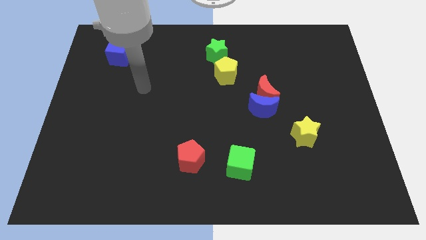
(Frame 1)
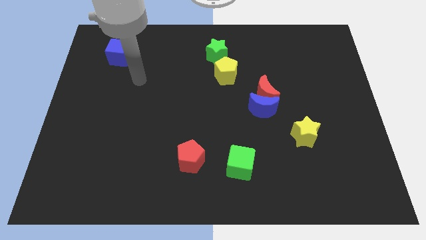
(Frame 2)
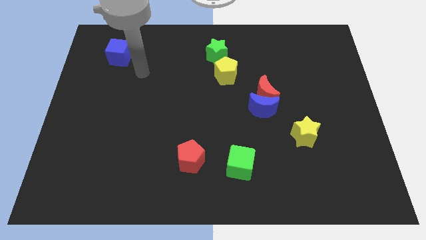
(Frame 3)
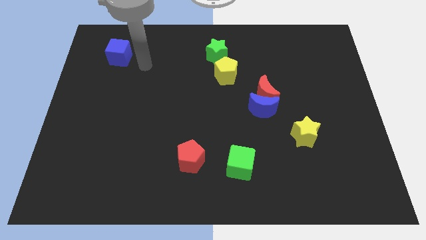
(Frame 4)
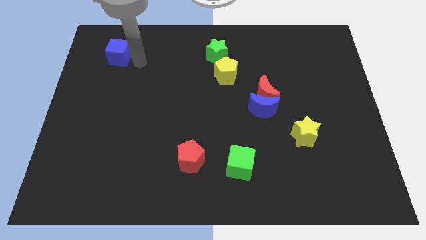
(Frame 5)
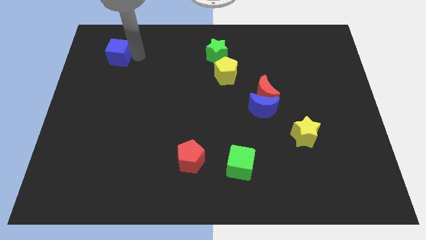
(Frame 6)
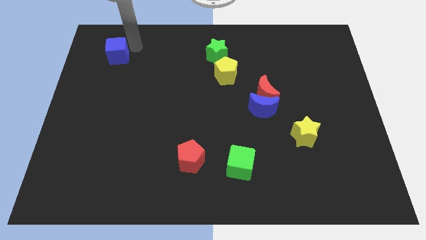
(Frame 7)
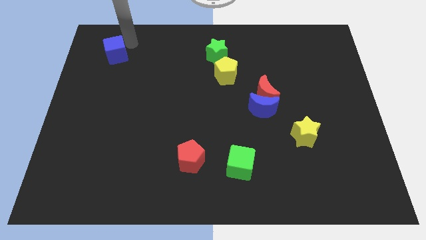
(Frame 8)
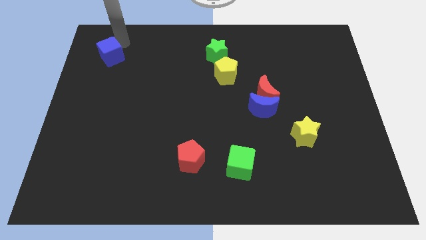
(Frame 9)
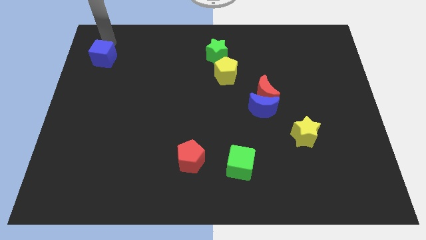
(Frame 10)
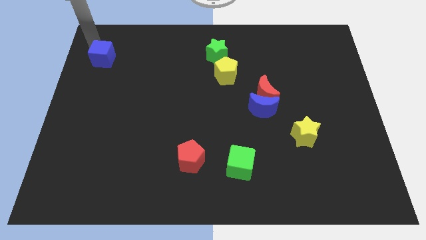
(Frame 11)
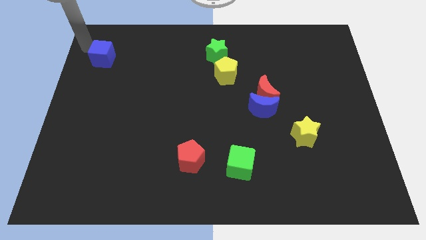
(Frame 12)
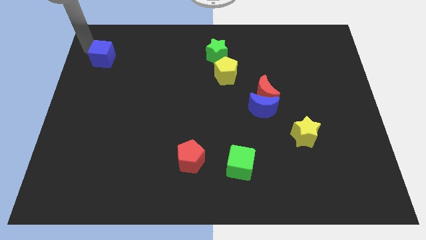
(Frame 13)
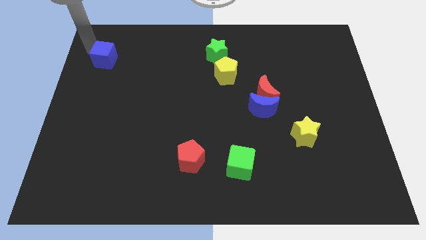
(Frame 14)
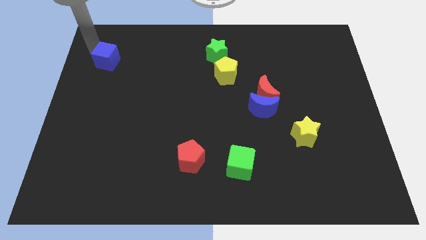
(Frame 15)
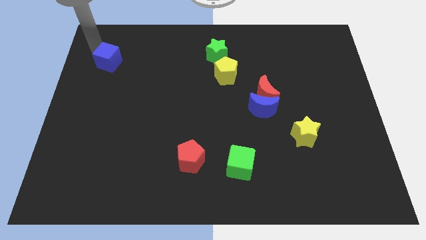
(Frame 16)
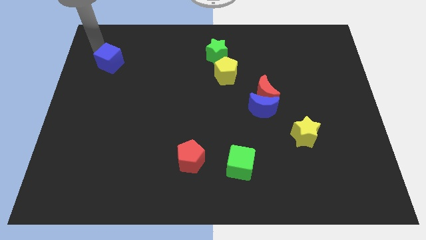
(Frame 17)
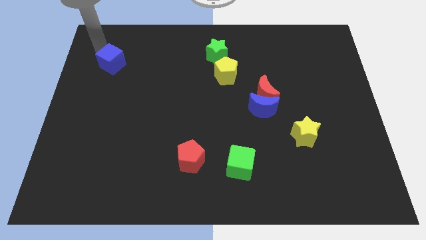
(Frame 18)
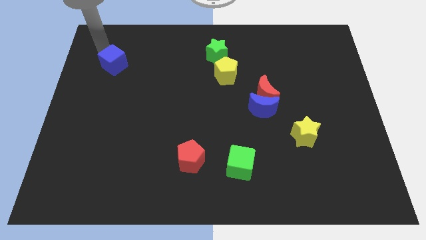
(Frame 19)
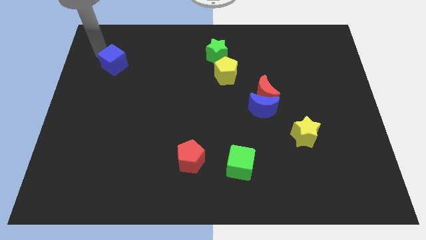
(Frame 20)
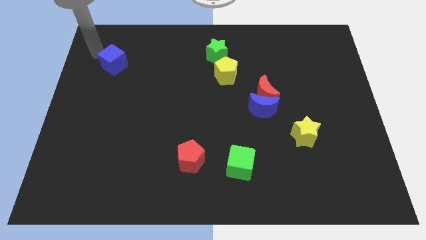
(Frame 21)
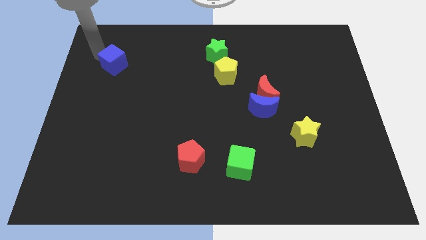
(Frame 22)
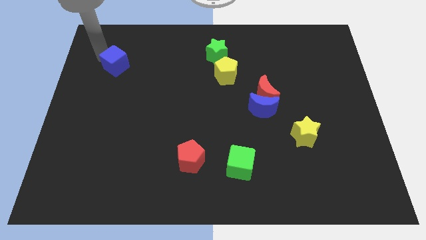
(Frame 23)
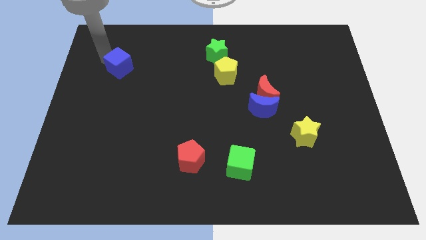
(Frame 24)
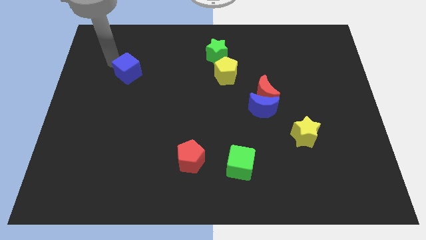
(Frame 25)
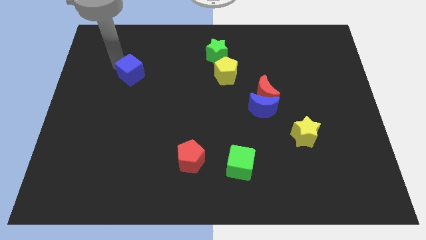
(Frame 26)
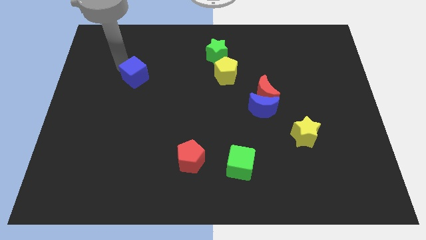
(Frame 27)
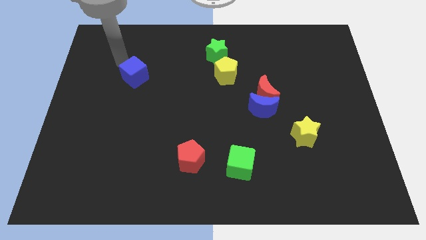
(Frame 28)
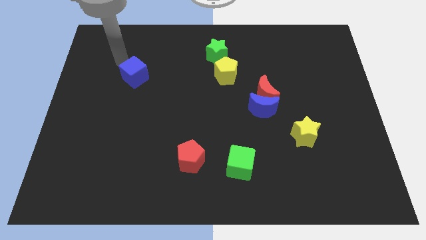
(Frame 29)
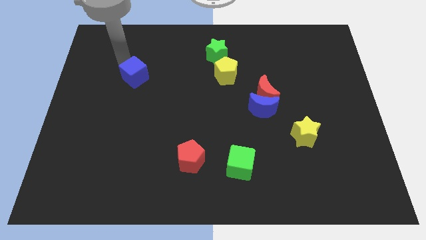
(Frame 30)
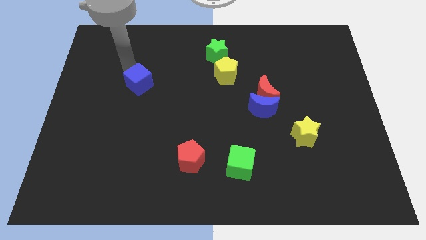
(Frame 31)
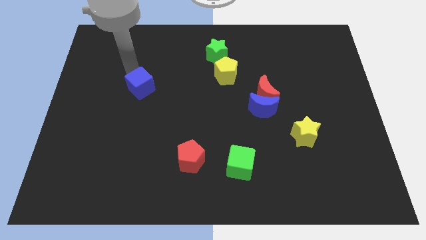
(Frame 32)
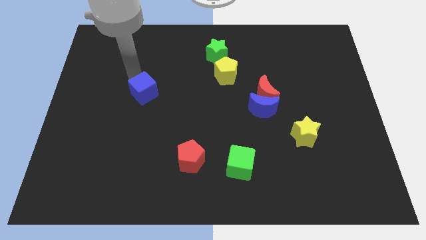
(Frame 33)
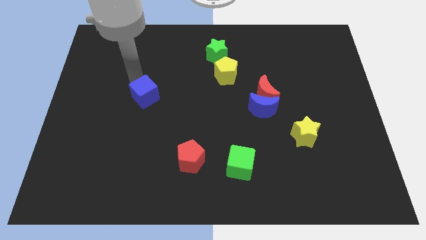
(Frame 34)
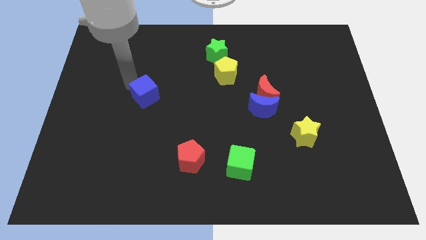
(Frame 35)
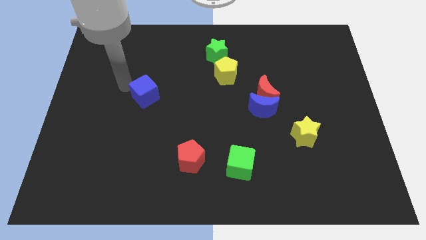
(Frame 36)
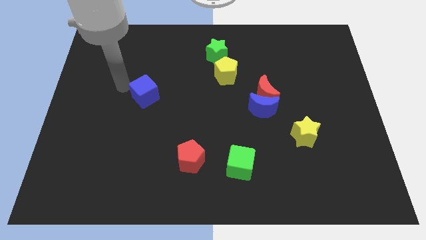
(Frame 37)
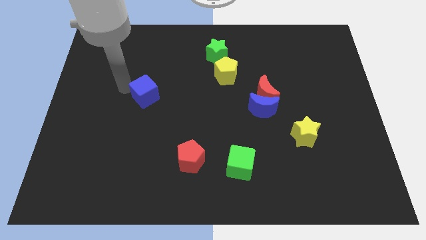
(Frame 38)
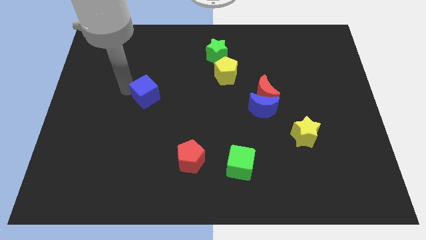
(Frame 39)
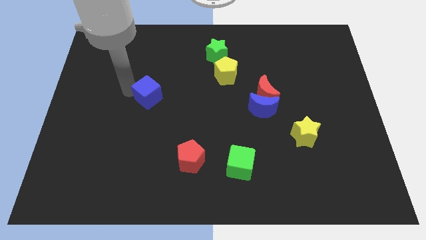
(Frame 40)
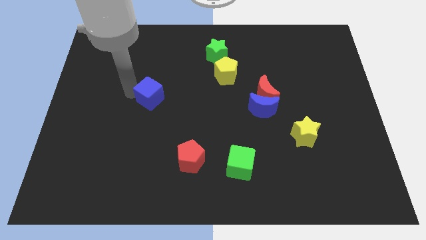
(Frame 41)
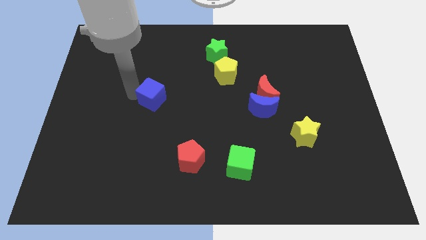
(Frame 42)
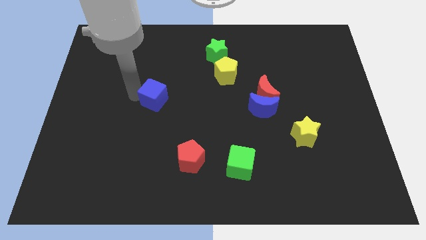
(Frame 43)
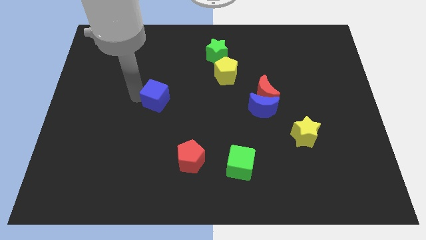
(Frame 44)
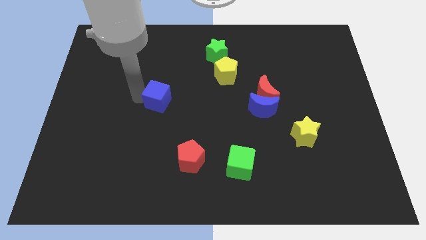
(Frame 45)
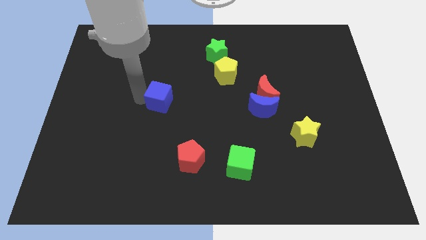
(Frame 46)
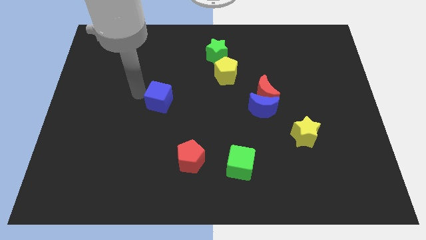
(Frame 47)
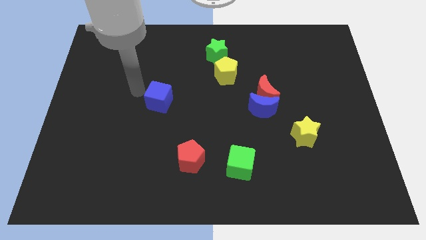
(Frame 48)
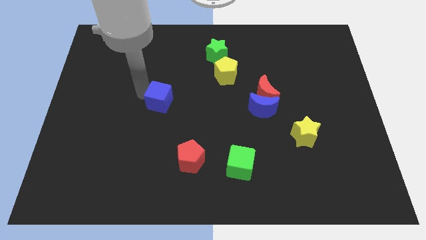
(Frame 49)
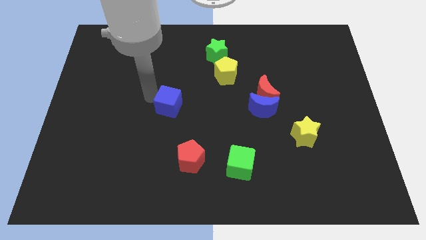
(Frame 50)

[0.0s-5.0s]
push the blue cube downwards and then right

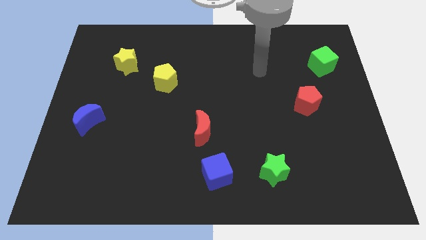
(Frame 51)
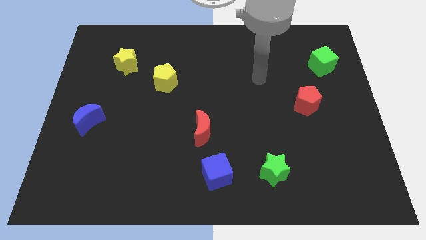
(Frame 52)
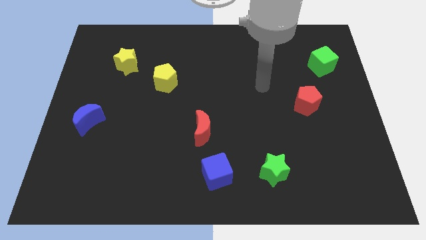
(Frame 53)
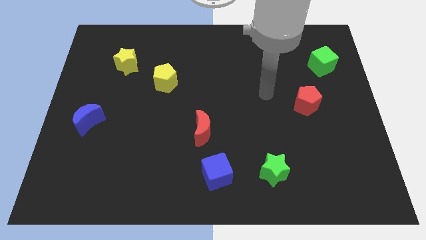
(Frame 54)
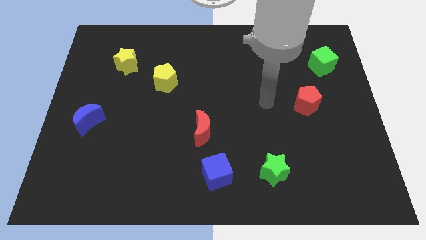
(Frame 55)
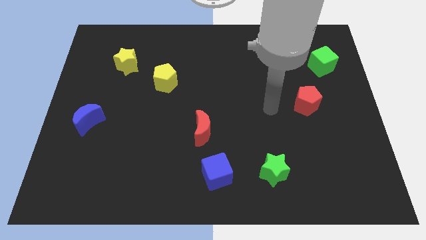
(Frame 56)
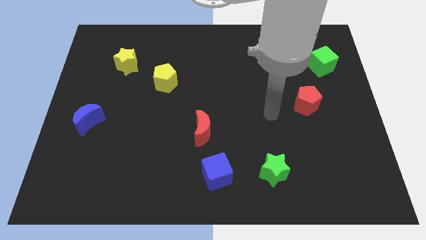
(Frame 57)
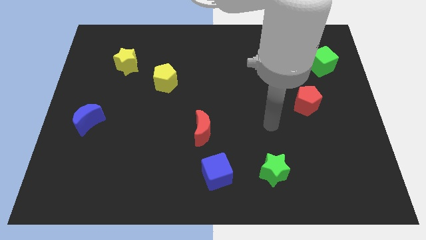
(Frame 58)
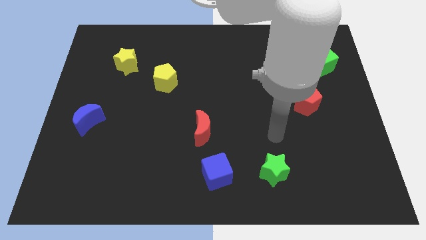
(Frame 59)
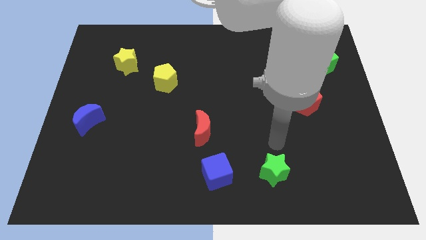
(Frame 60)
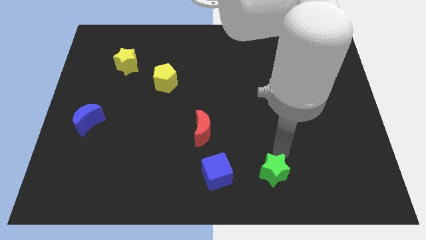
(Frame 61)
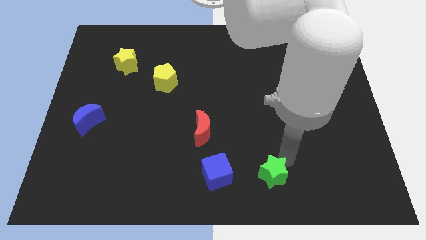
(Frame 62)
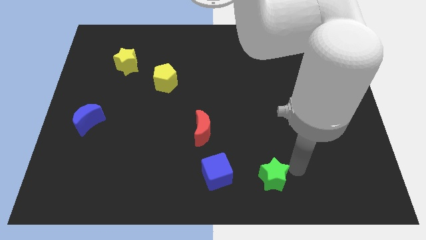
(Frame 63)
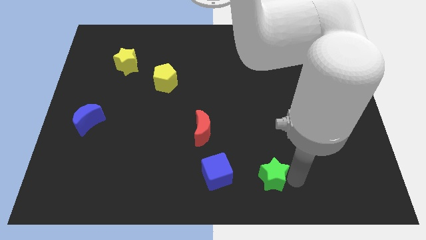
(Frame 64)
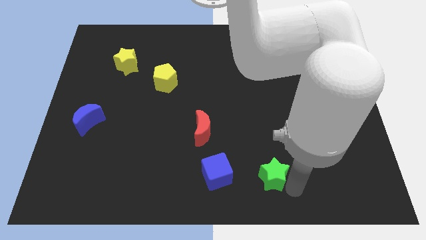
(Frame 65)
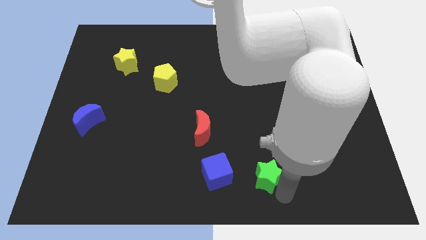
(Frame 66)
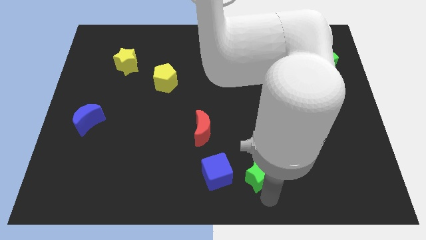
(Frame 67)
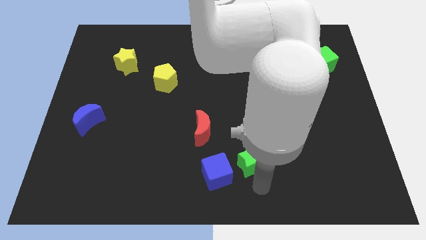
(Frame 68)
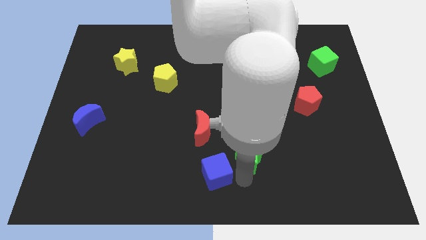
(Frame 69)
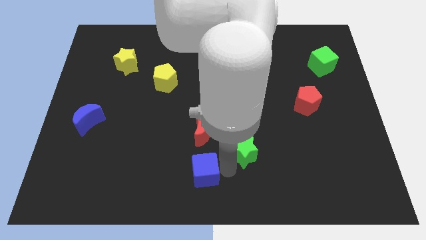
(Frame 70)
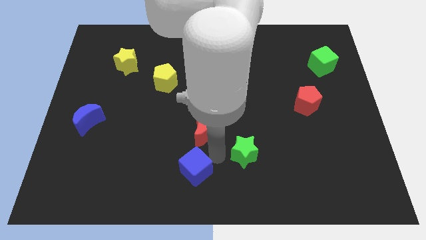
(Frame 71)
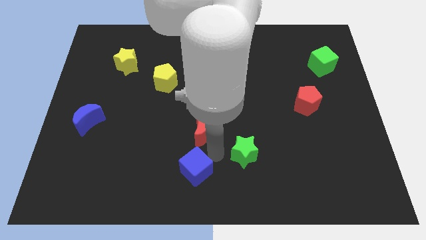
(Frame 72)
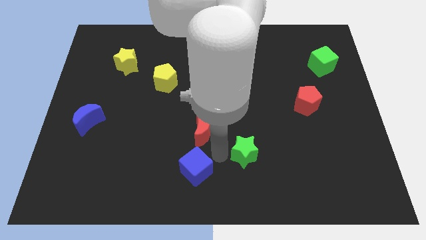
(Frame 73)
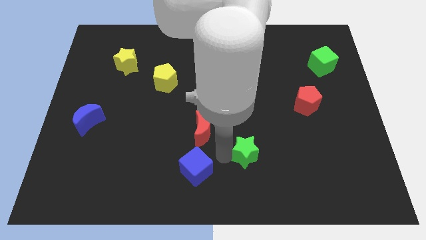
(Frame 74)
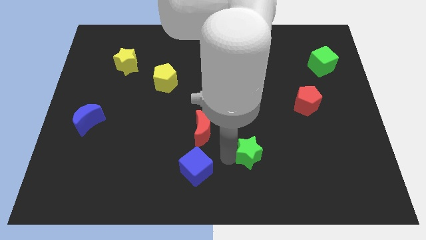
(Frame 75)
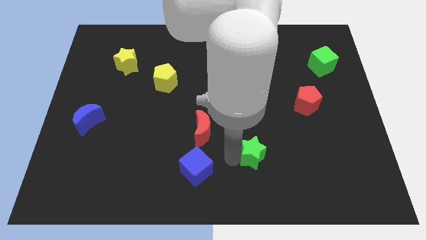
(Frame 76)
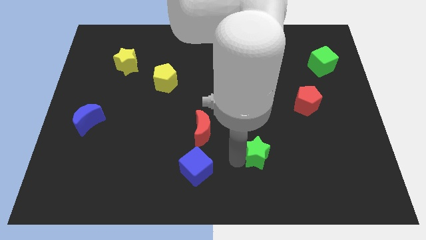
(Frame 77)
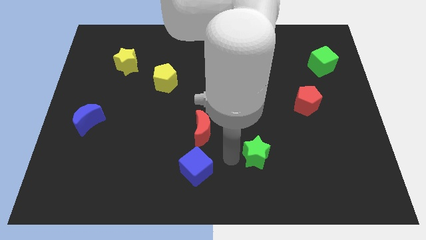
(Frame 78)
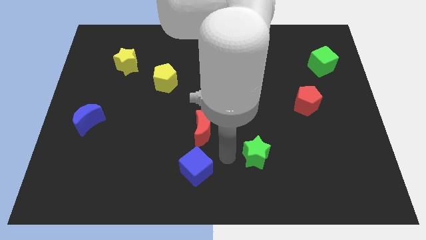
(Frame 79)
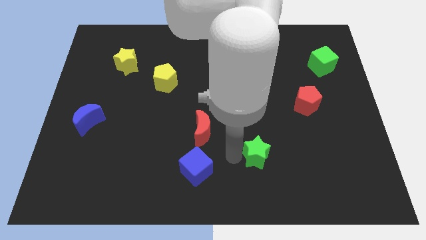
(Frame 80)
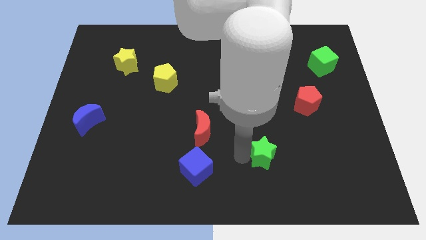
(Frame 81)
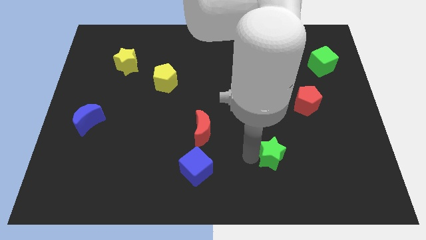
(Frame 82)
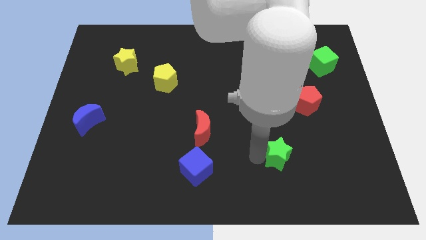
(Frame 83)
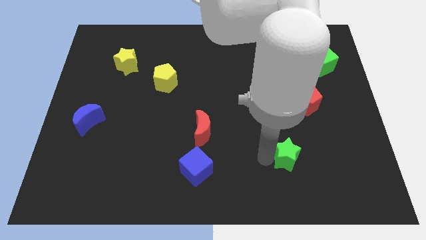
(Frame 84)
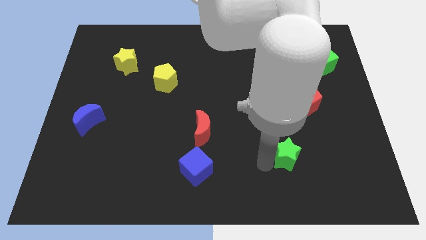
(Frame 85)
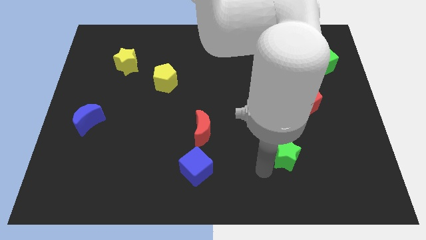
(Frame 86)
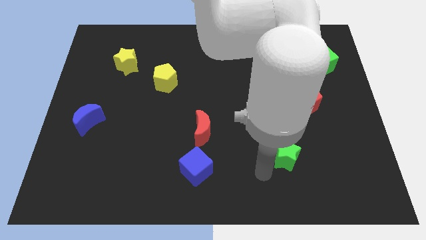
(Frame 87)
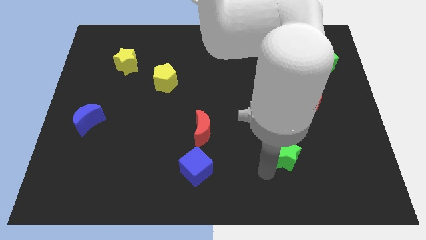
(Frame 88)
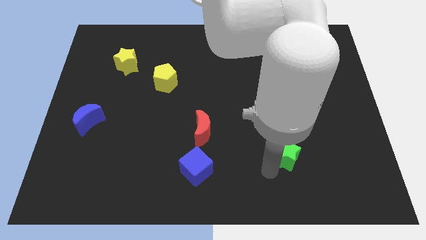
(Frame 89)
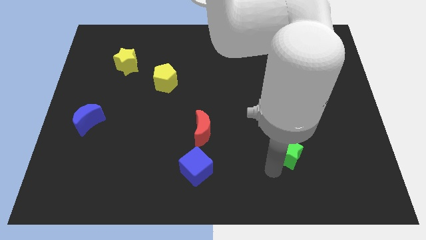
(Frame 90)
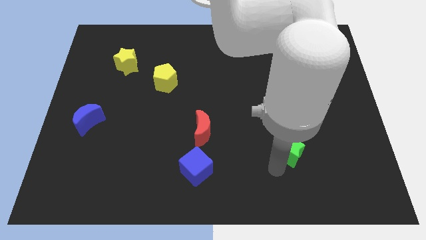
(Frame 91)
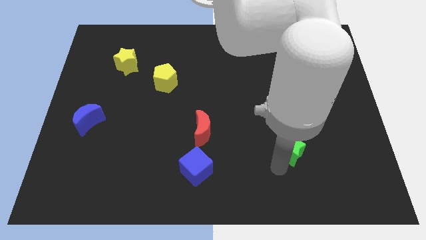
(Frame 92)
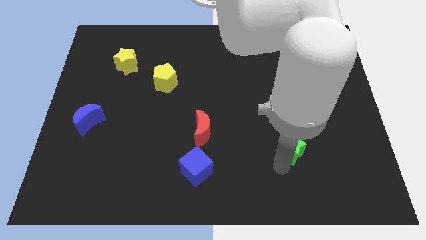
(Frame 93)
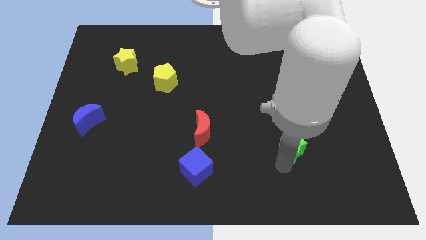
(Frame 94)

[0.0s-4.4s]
slide the green star upwards and then right a little bit
